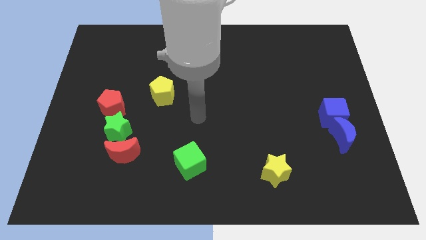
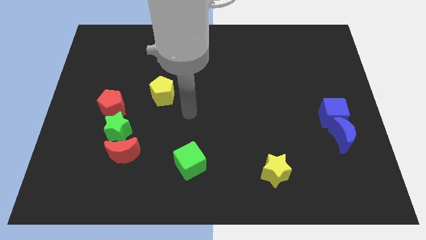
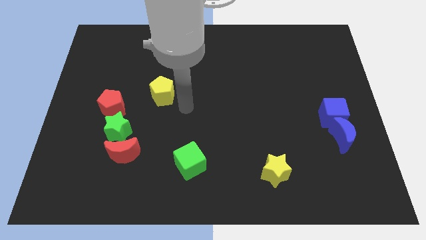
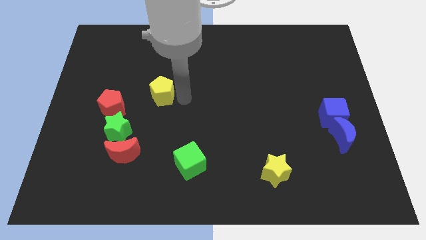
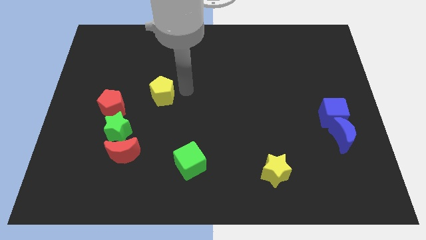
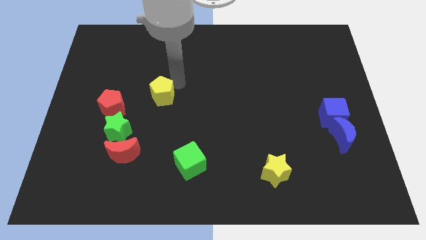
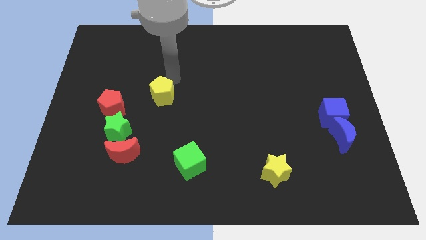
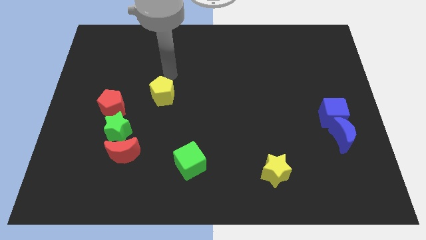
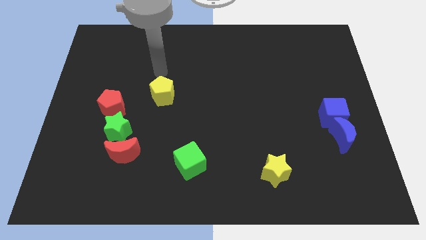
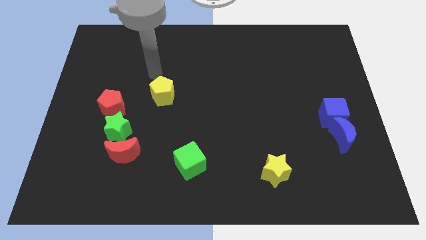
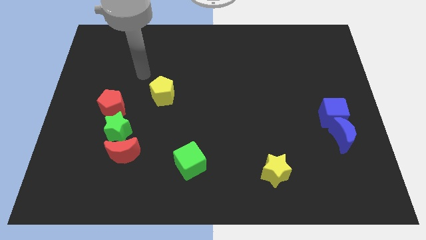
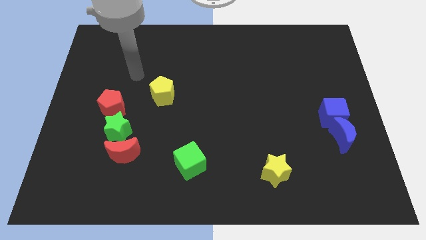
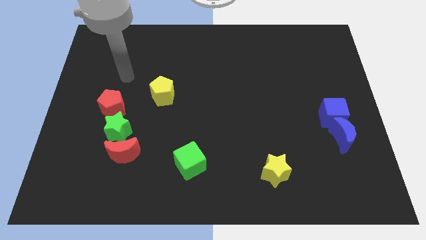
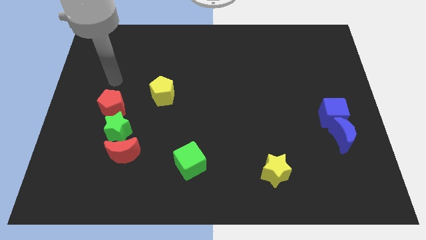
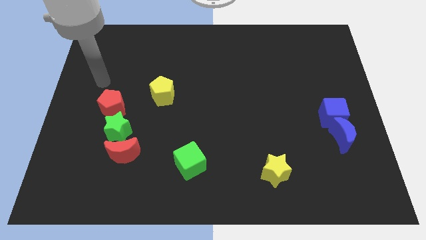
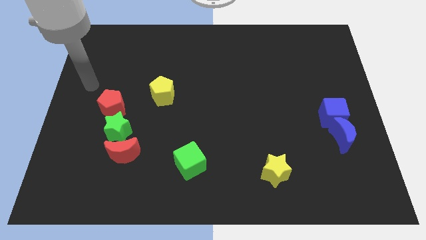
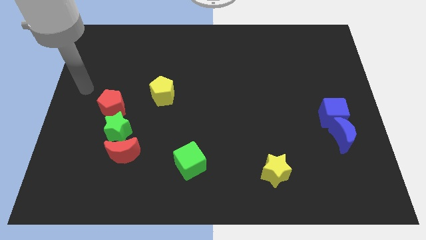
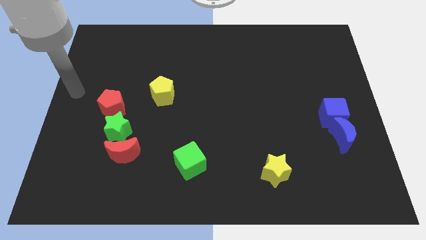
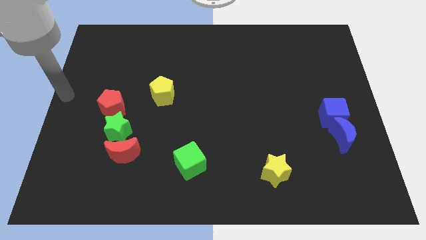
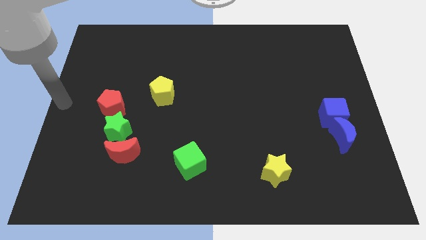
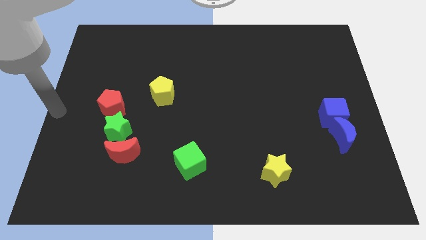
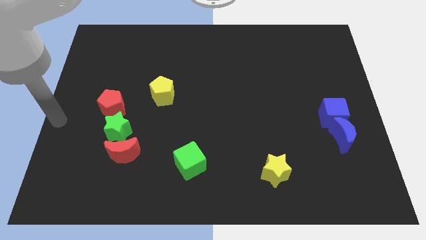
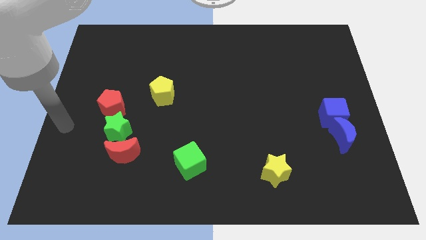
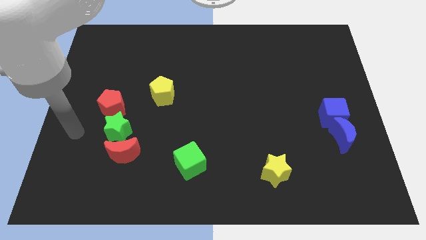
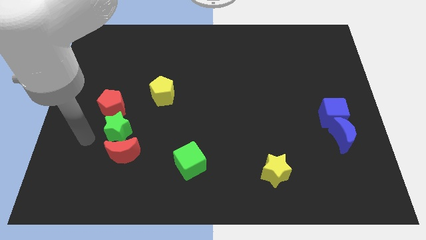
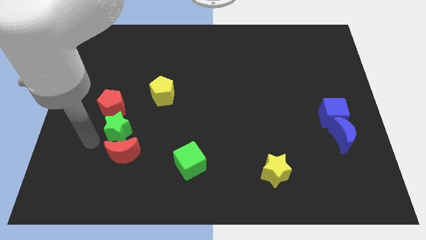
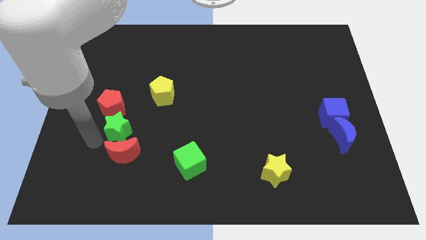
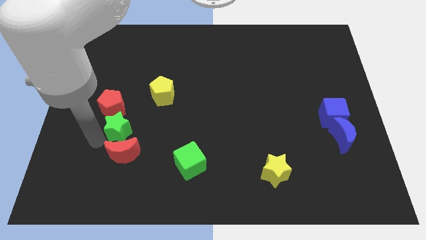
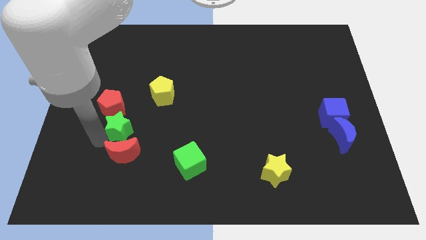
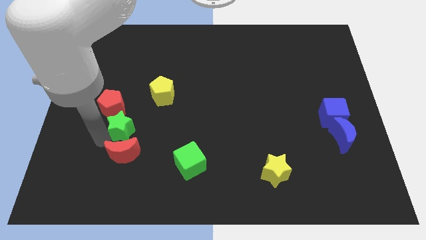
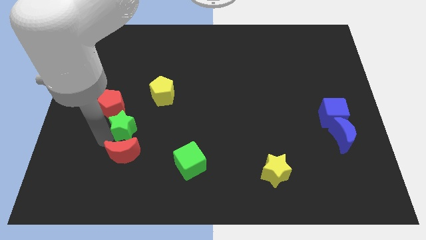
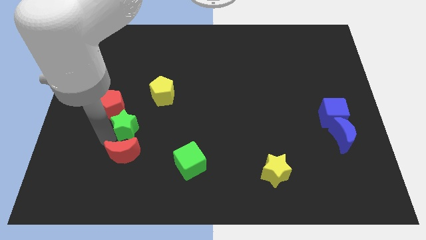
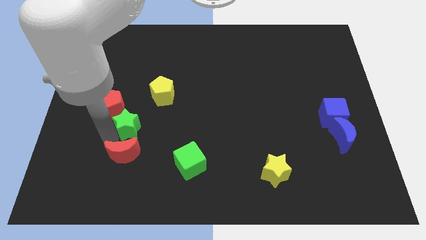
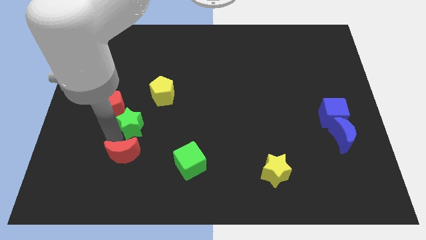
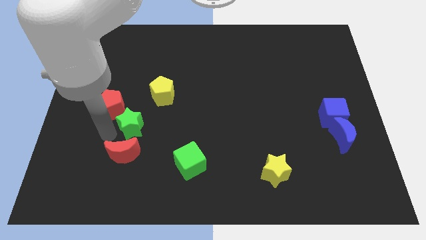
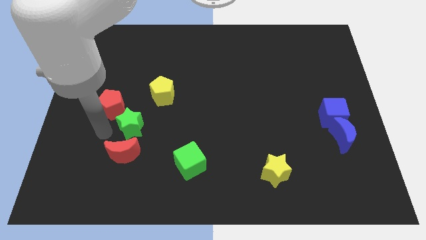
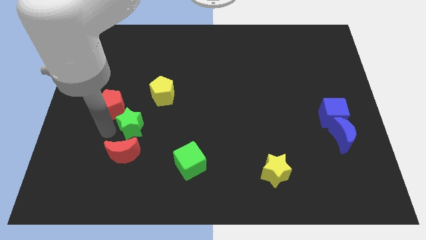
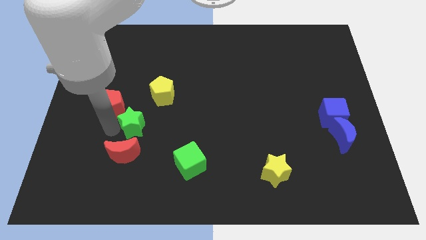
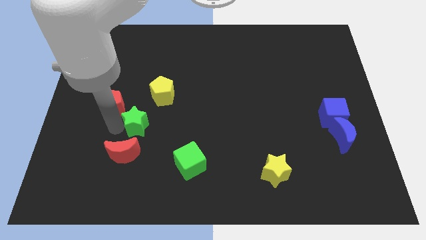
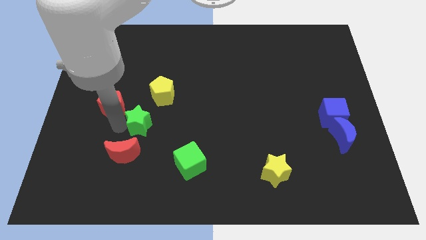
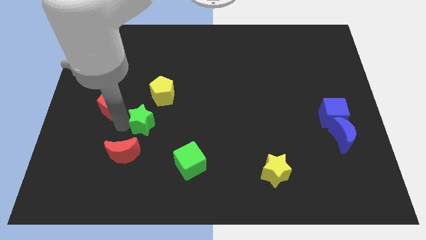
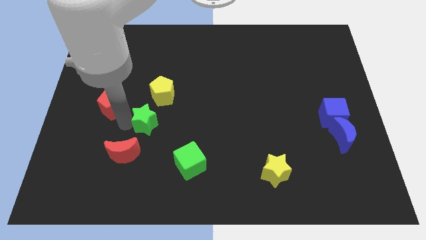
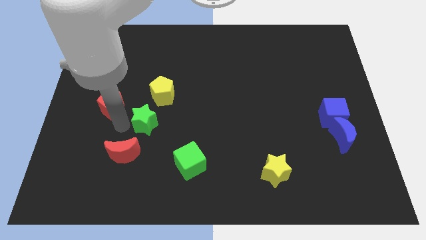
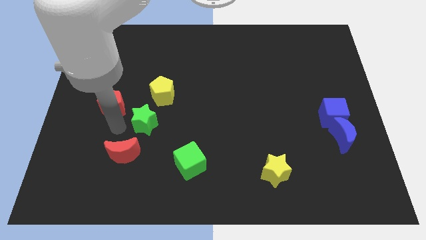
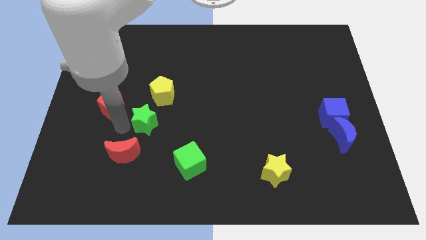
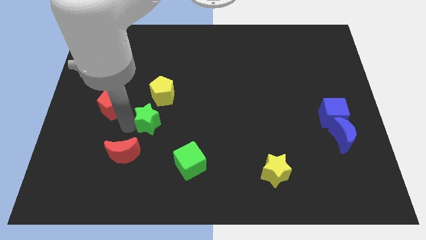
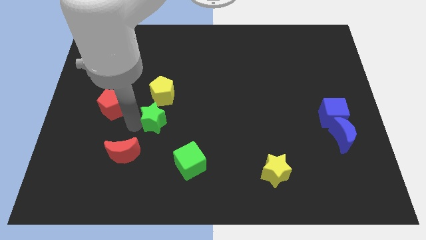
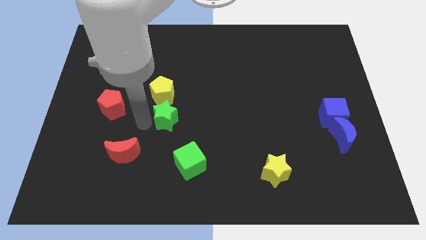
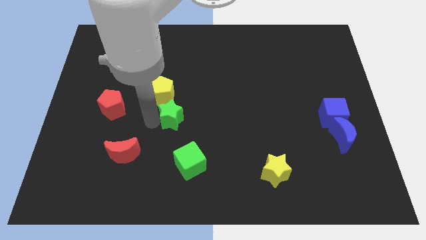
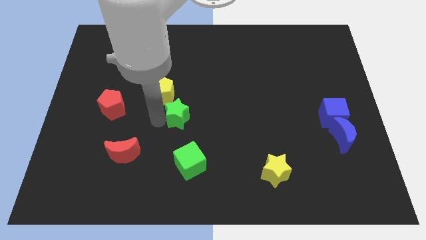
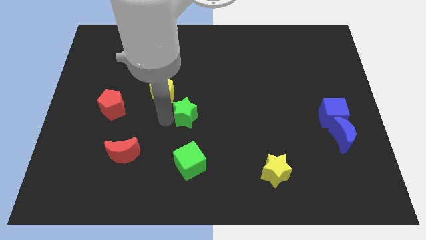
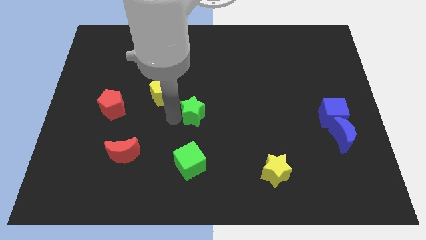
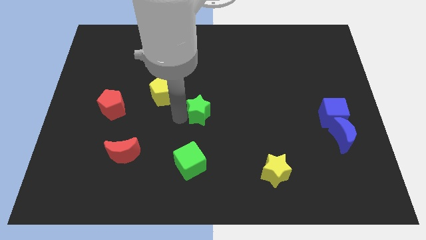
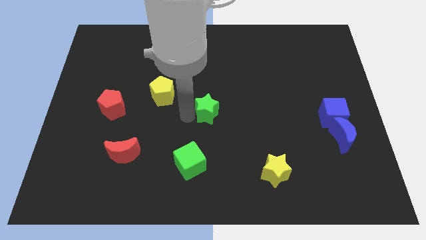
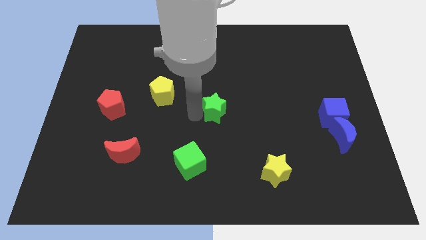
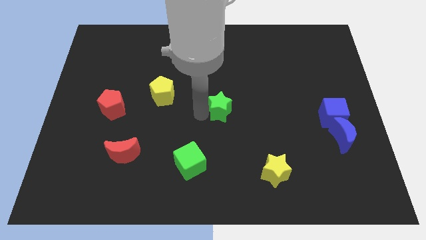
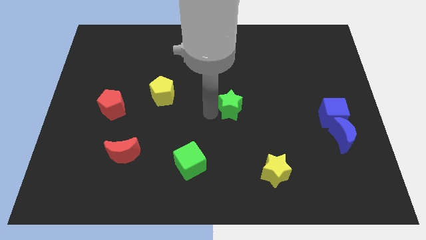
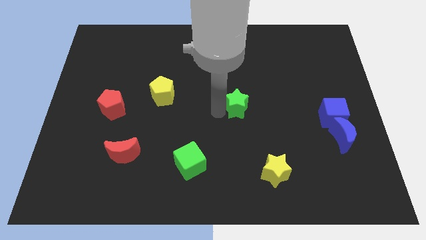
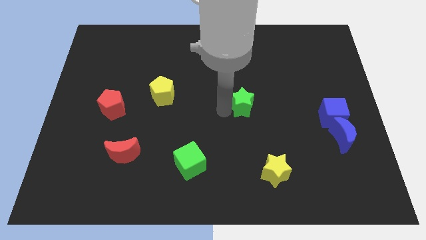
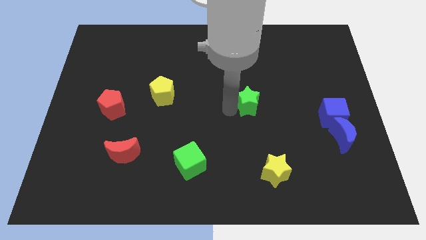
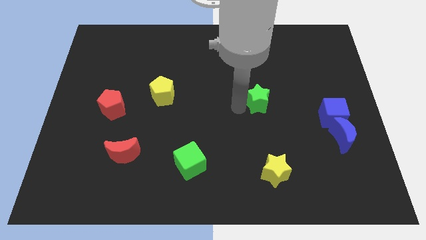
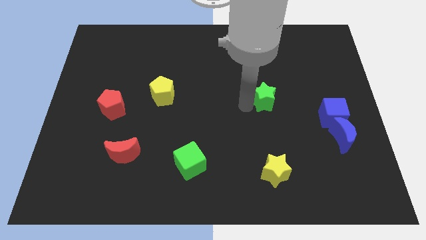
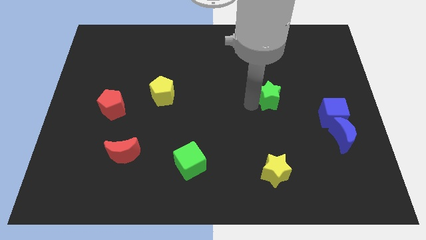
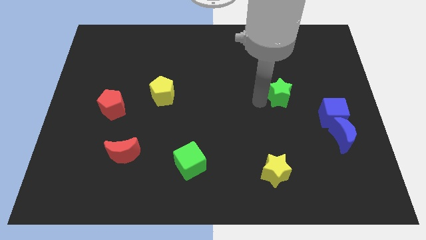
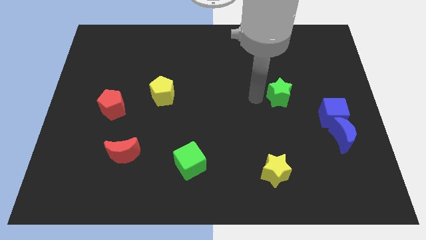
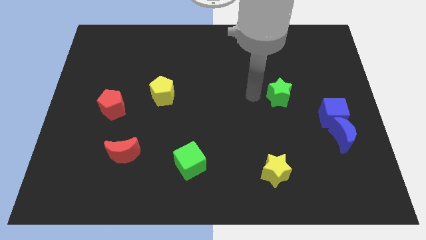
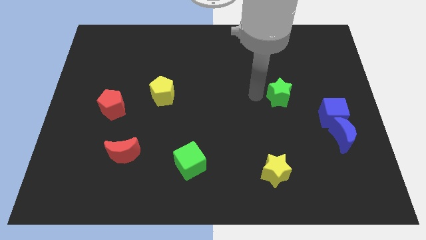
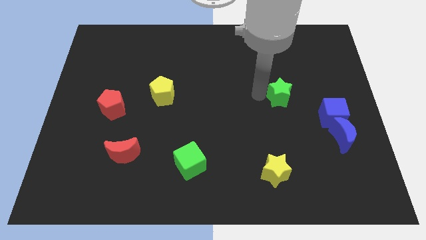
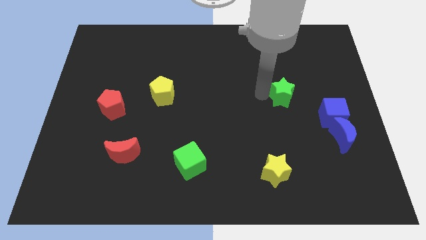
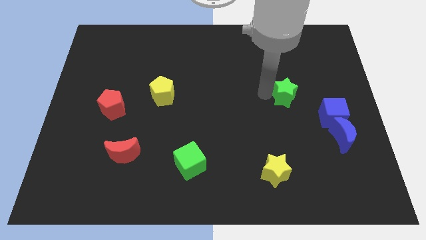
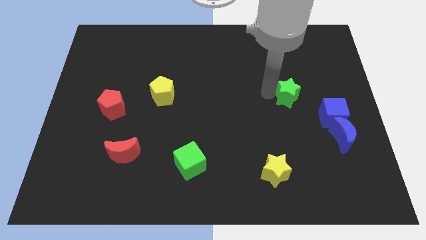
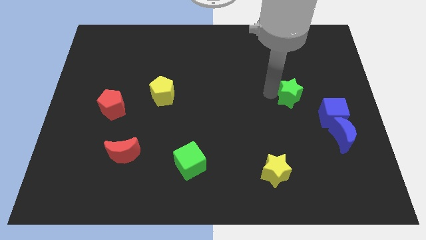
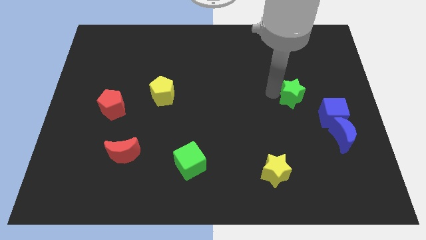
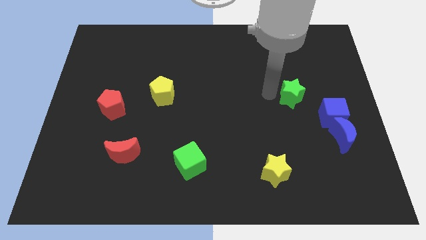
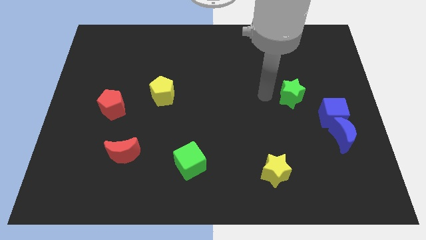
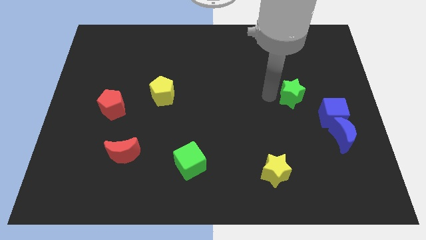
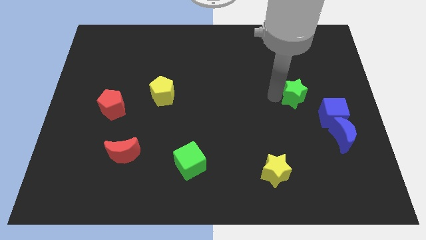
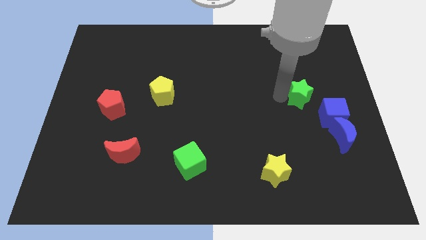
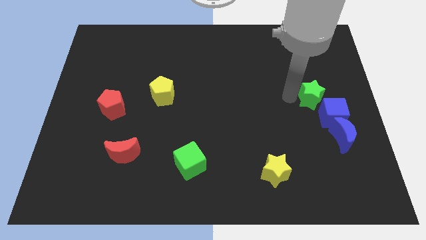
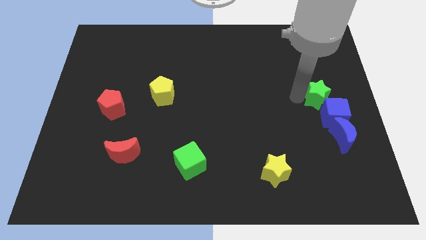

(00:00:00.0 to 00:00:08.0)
move the green star to the right side
